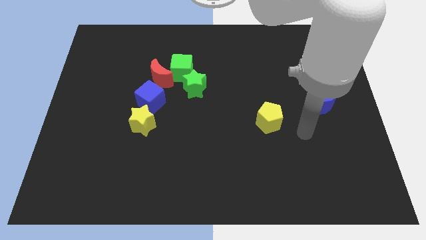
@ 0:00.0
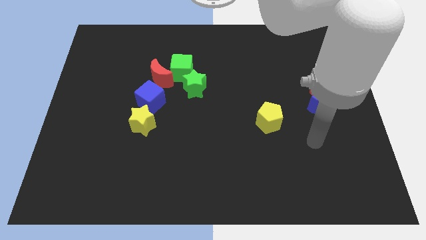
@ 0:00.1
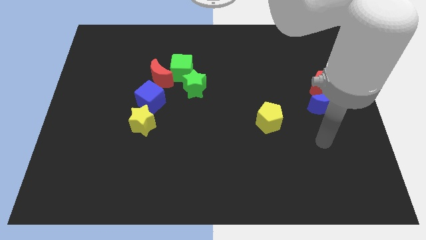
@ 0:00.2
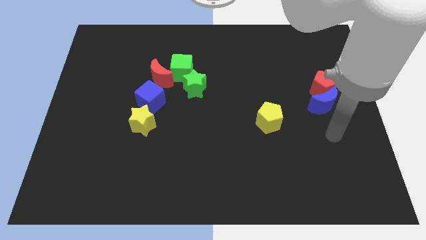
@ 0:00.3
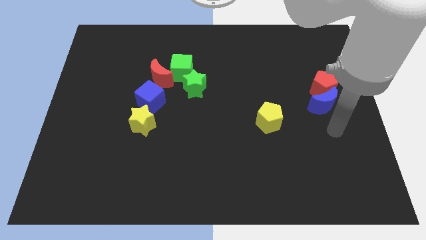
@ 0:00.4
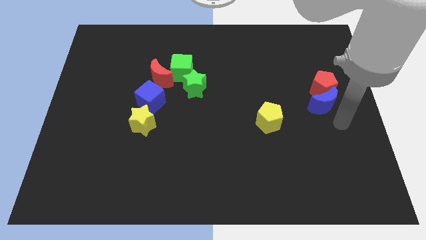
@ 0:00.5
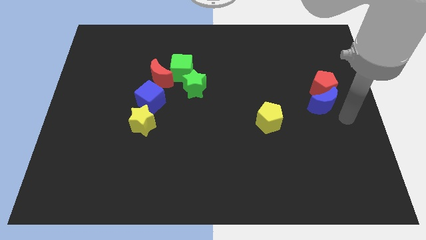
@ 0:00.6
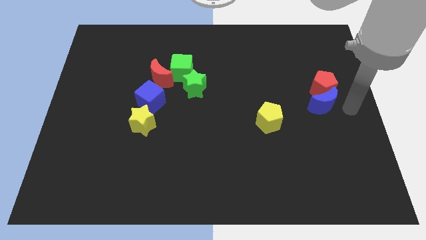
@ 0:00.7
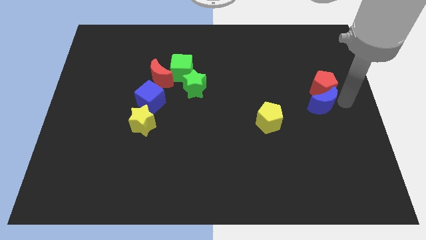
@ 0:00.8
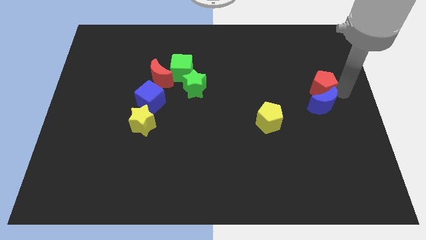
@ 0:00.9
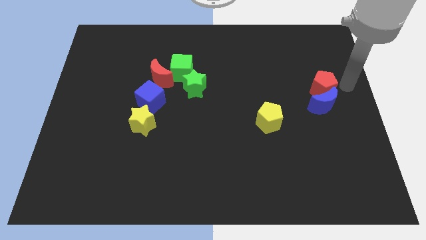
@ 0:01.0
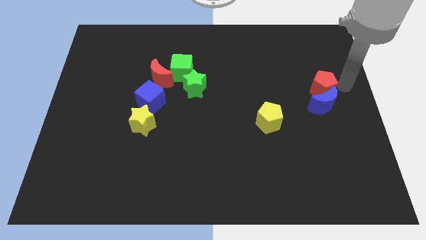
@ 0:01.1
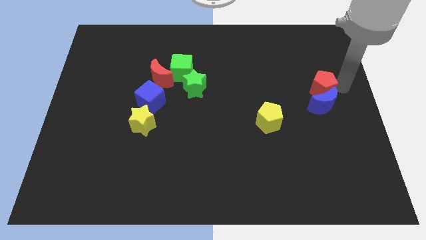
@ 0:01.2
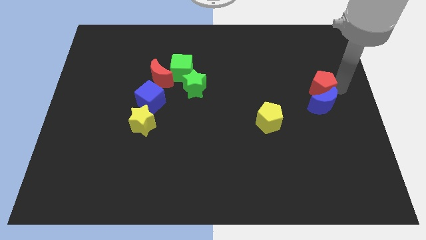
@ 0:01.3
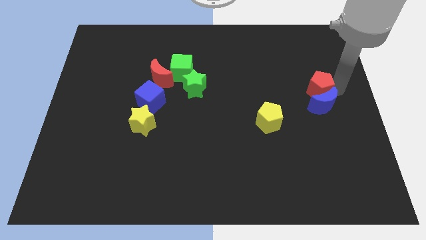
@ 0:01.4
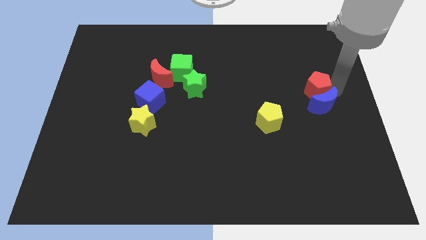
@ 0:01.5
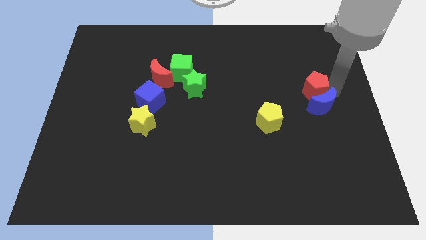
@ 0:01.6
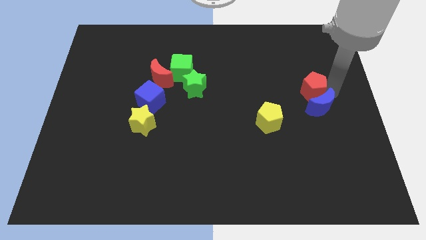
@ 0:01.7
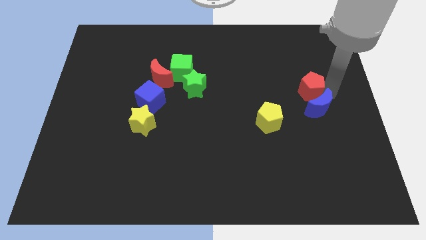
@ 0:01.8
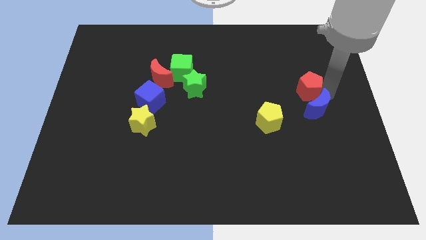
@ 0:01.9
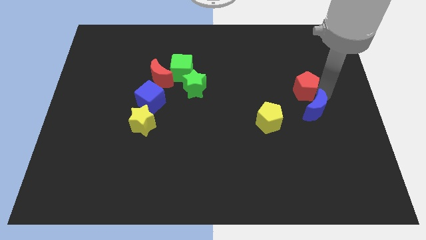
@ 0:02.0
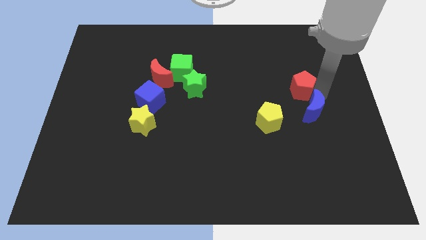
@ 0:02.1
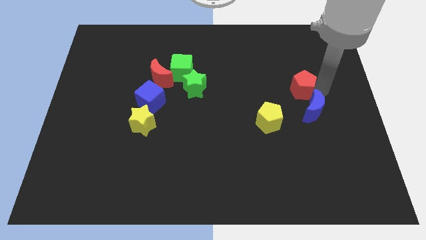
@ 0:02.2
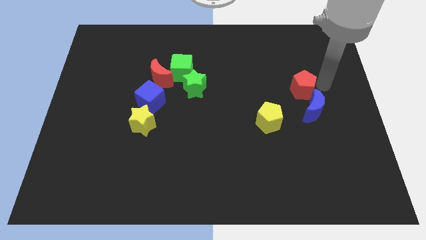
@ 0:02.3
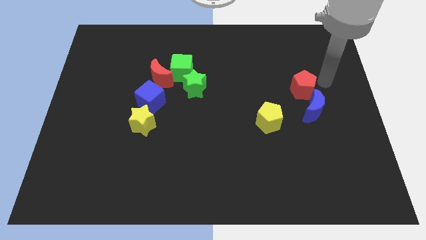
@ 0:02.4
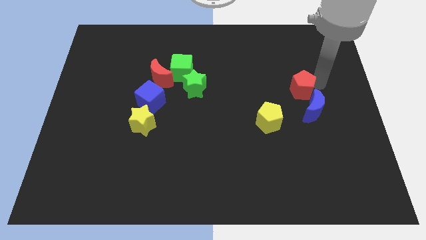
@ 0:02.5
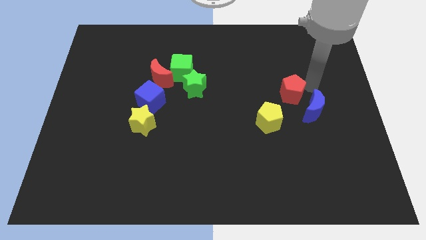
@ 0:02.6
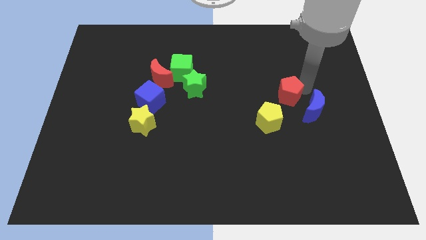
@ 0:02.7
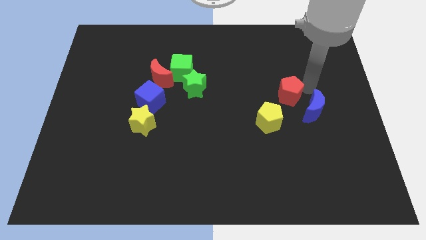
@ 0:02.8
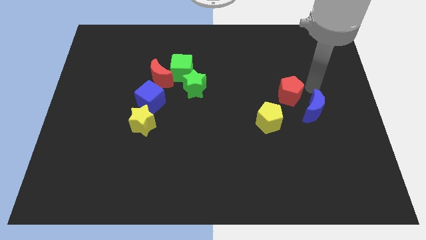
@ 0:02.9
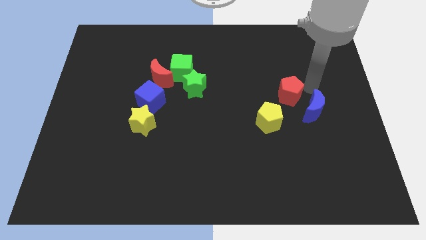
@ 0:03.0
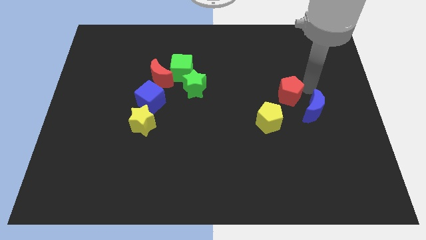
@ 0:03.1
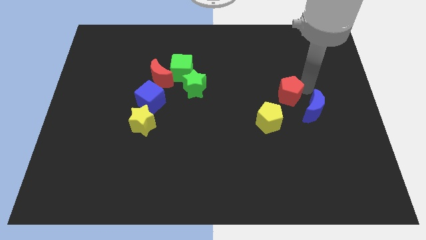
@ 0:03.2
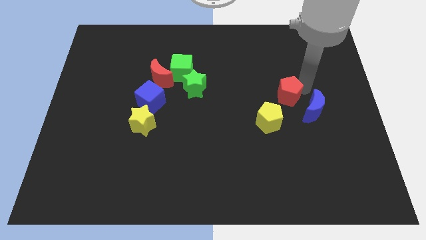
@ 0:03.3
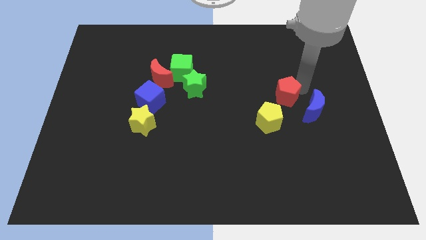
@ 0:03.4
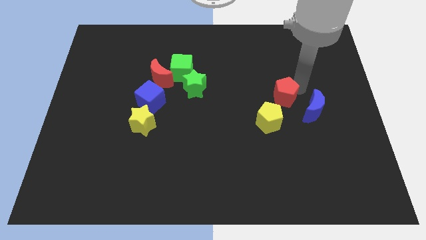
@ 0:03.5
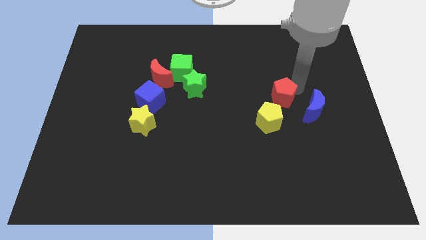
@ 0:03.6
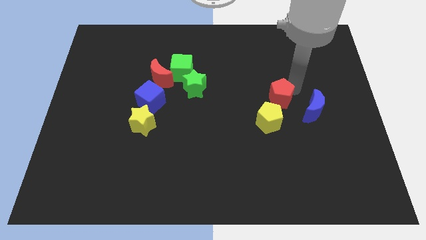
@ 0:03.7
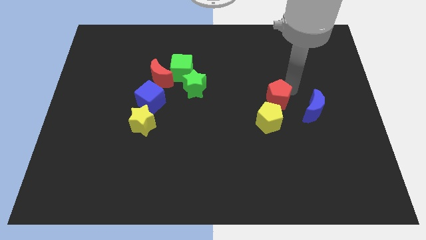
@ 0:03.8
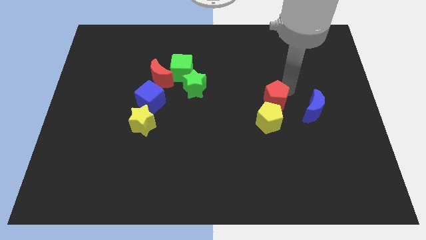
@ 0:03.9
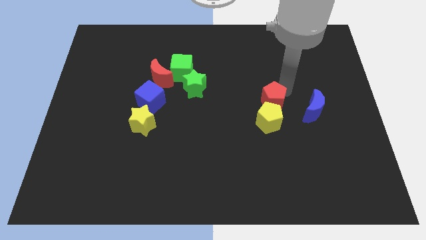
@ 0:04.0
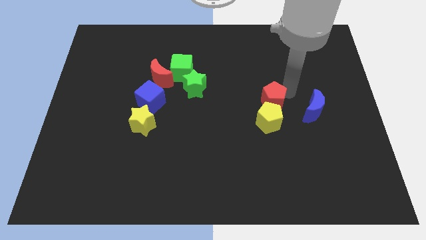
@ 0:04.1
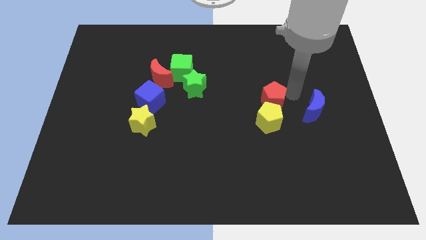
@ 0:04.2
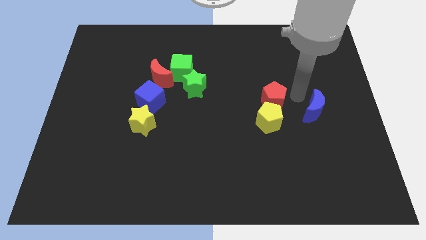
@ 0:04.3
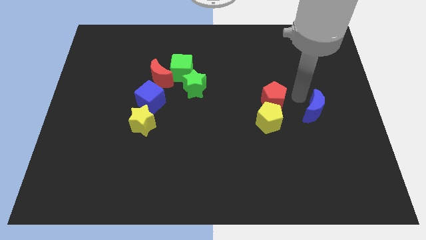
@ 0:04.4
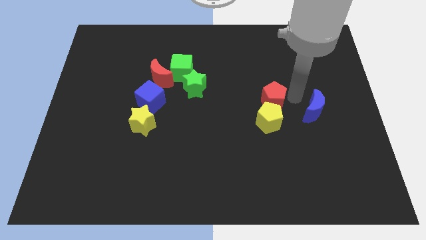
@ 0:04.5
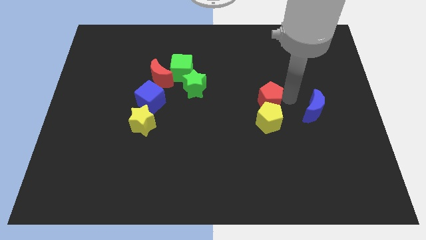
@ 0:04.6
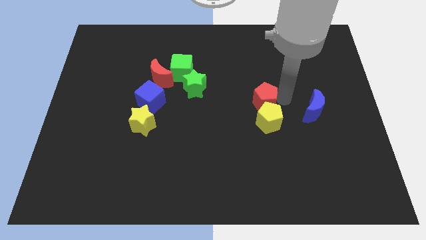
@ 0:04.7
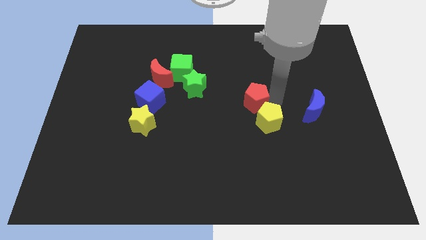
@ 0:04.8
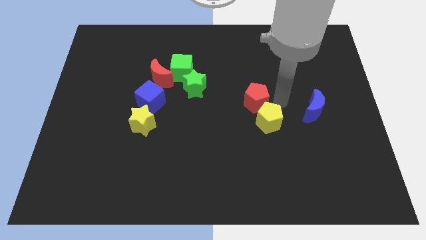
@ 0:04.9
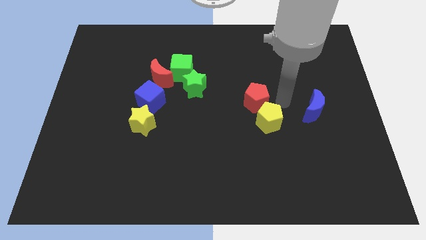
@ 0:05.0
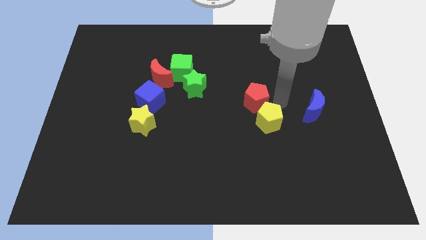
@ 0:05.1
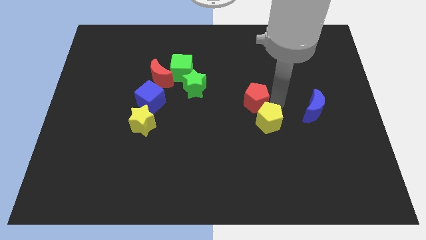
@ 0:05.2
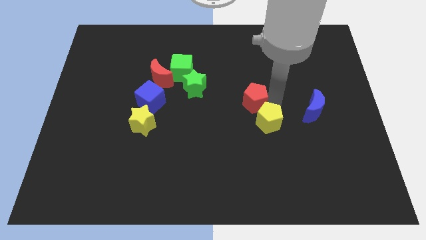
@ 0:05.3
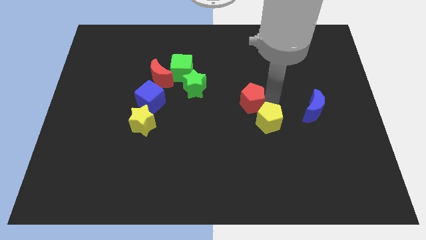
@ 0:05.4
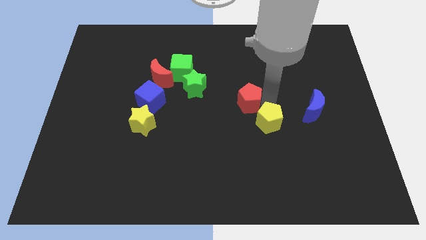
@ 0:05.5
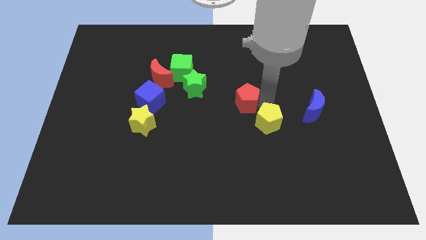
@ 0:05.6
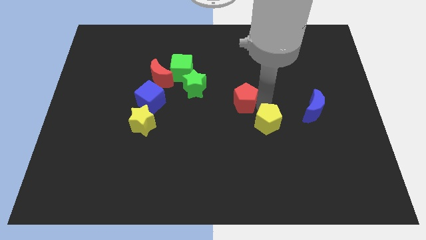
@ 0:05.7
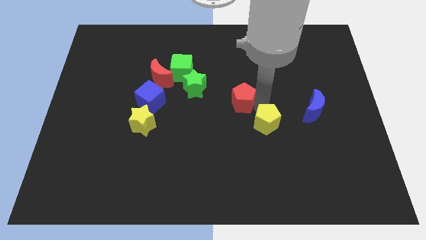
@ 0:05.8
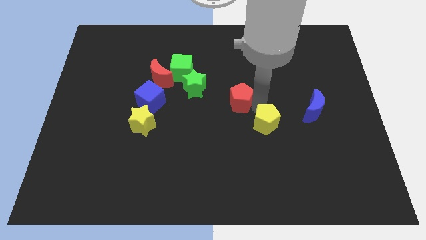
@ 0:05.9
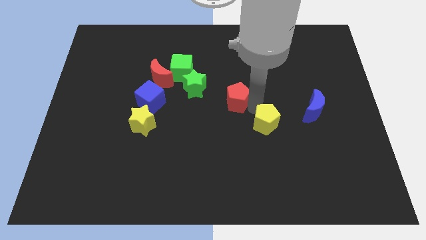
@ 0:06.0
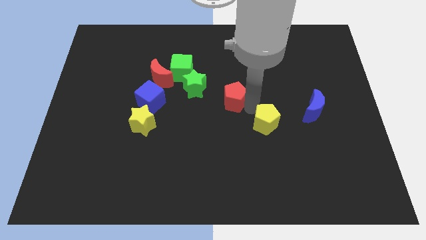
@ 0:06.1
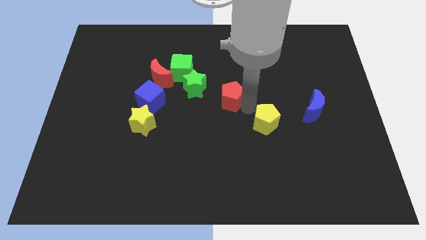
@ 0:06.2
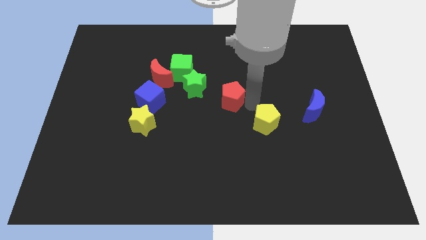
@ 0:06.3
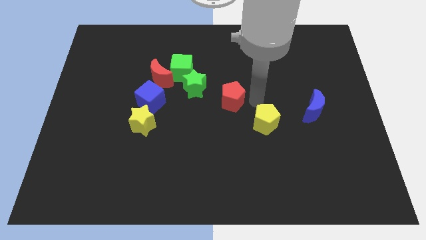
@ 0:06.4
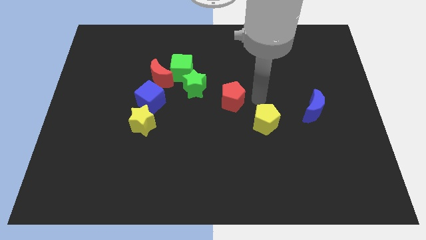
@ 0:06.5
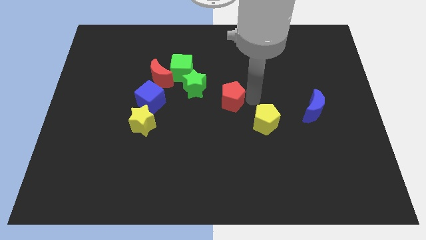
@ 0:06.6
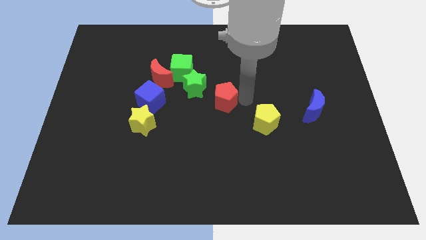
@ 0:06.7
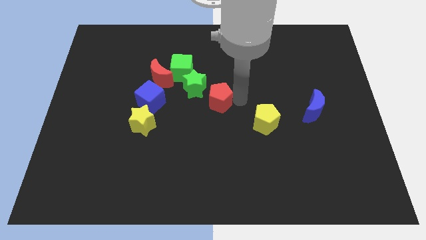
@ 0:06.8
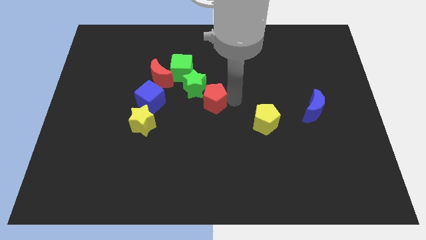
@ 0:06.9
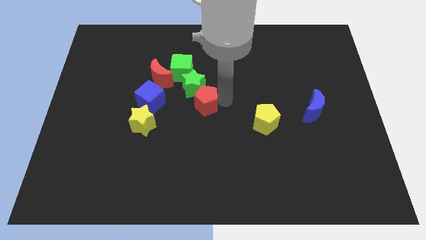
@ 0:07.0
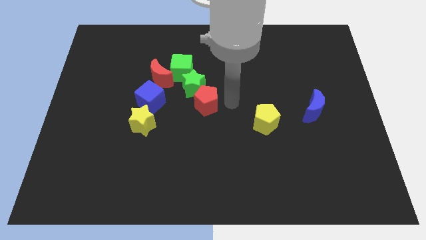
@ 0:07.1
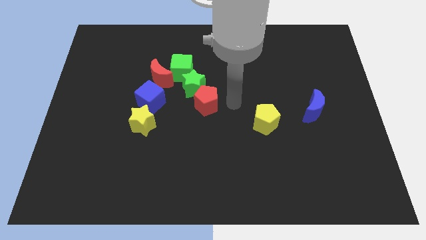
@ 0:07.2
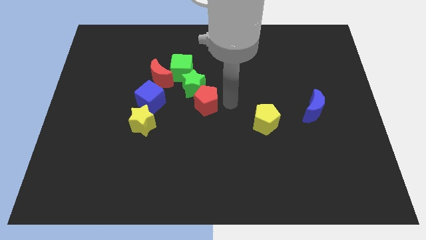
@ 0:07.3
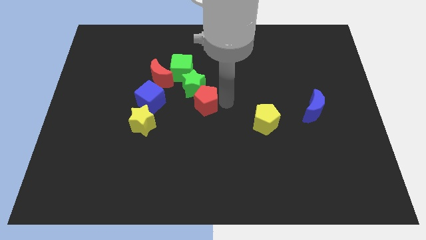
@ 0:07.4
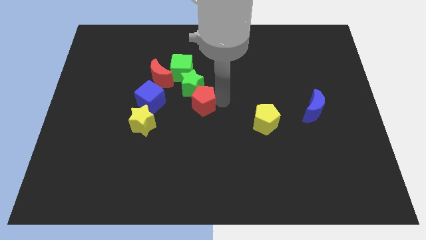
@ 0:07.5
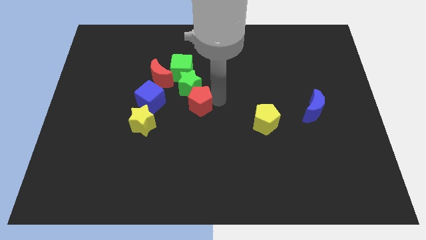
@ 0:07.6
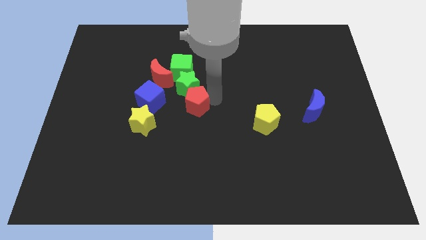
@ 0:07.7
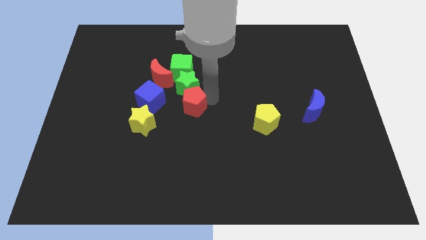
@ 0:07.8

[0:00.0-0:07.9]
push the red pentagon to the bottom left of the green star
